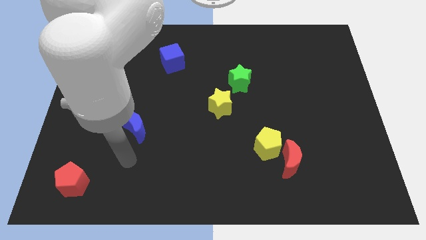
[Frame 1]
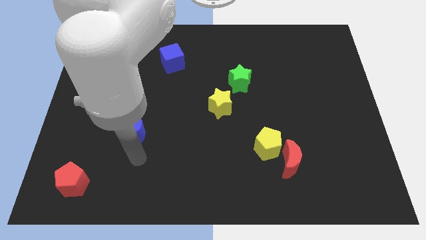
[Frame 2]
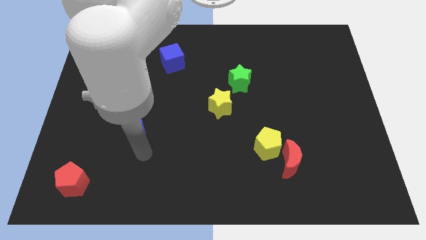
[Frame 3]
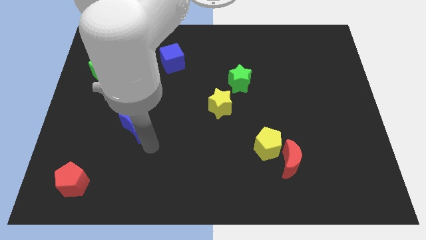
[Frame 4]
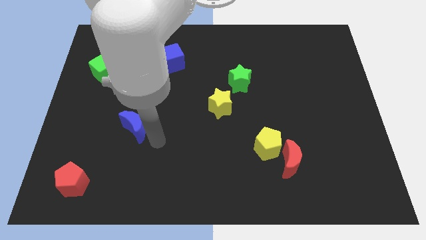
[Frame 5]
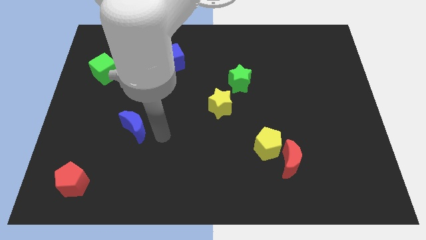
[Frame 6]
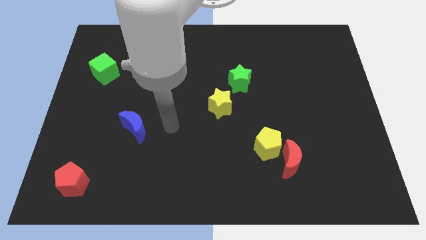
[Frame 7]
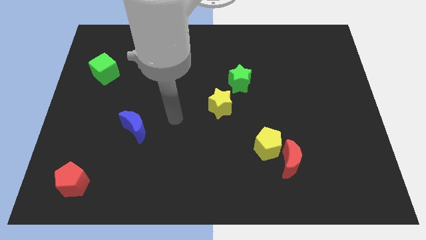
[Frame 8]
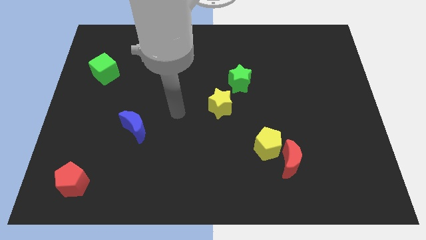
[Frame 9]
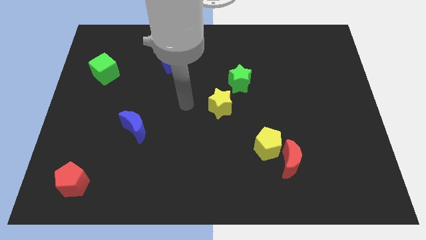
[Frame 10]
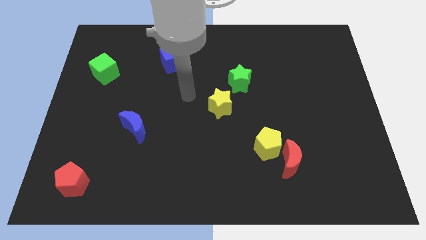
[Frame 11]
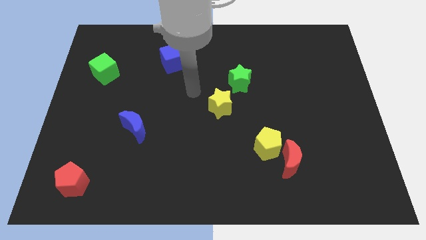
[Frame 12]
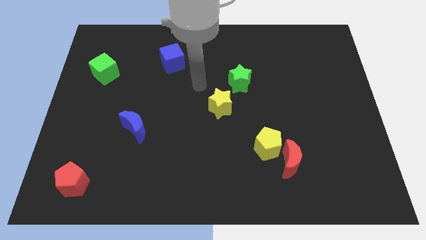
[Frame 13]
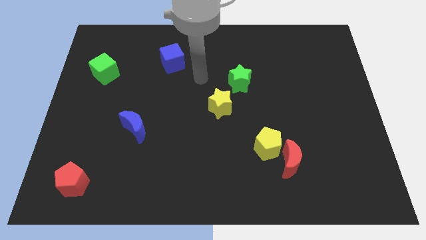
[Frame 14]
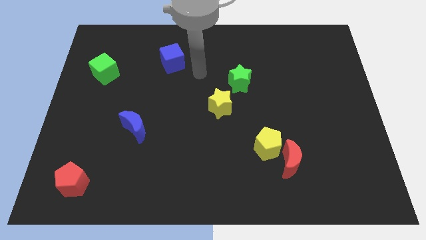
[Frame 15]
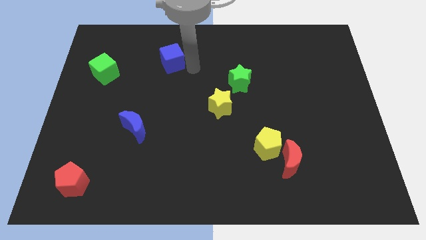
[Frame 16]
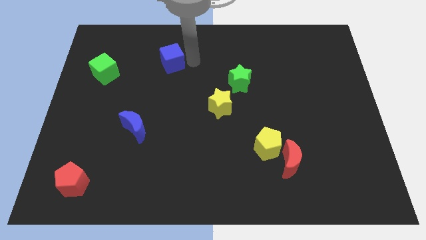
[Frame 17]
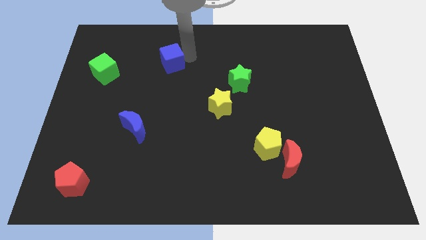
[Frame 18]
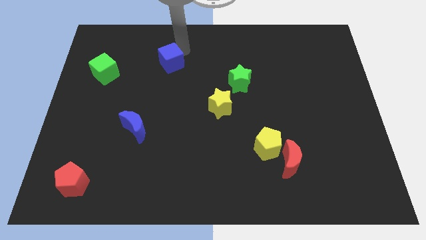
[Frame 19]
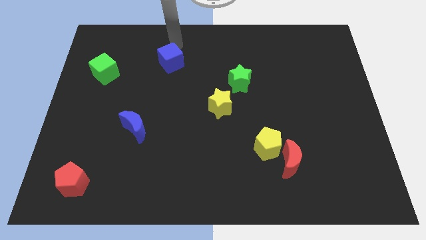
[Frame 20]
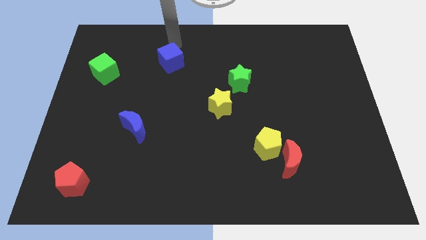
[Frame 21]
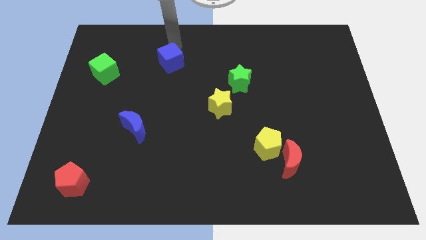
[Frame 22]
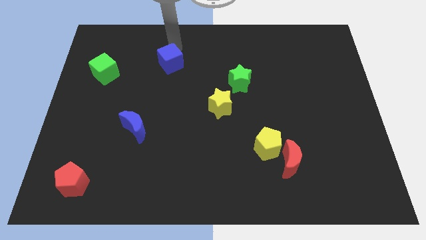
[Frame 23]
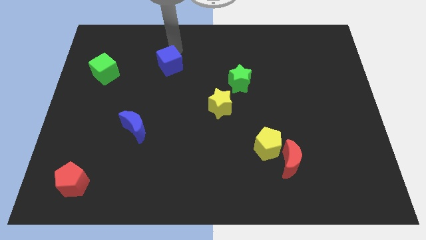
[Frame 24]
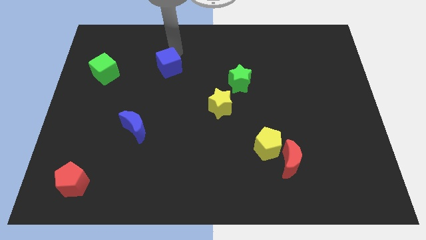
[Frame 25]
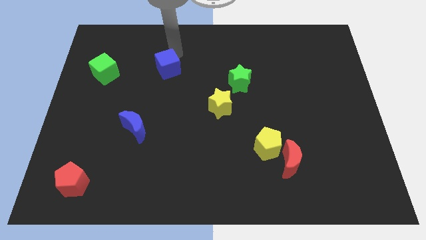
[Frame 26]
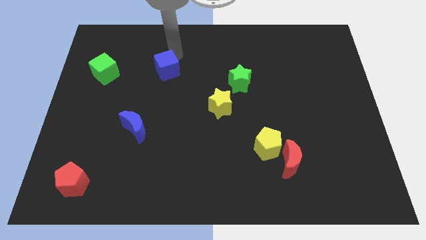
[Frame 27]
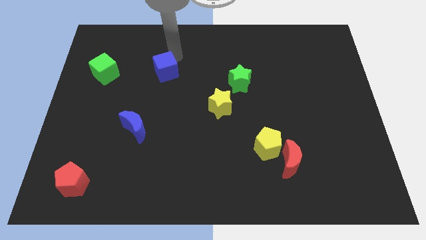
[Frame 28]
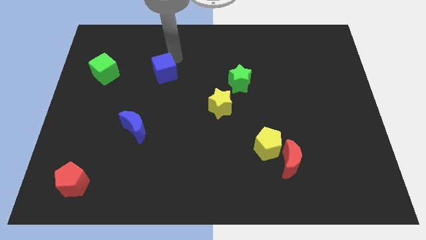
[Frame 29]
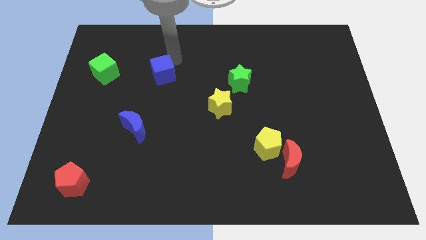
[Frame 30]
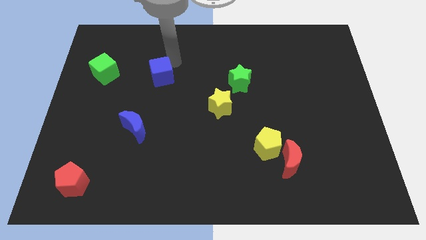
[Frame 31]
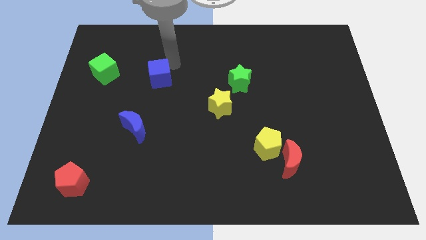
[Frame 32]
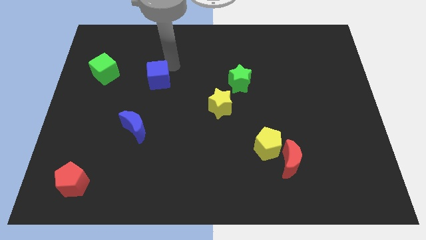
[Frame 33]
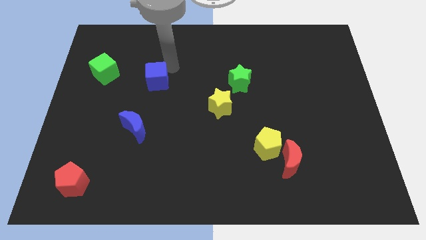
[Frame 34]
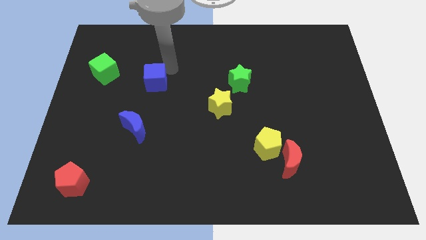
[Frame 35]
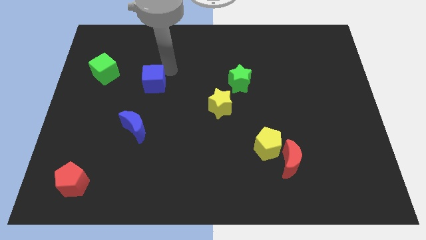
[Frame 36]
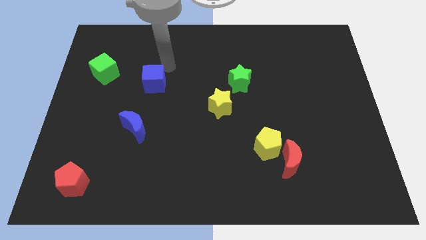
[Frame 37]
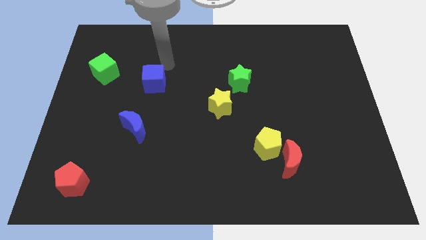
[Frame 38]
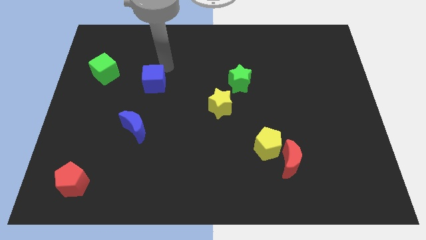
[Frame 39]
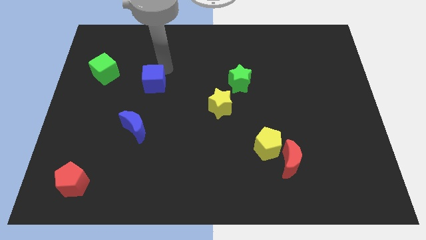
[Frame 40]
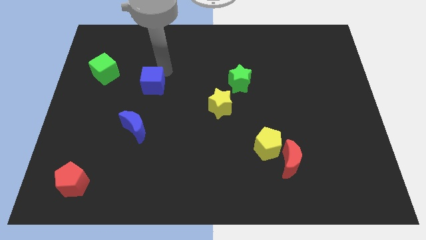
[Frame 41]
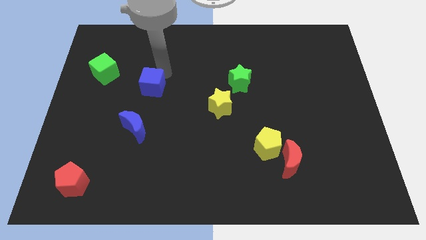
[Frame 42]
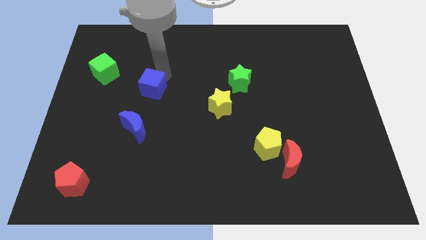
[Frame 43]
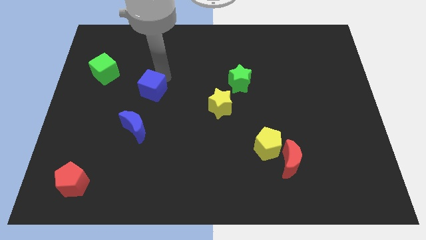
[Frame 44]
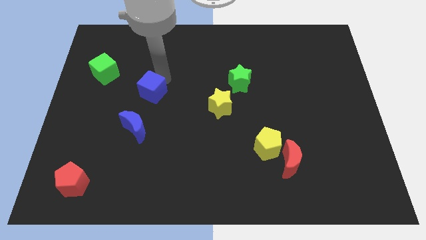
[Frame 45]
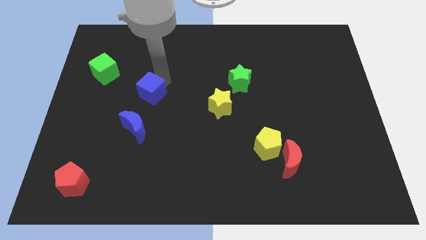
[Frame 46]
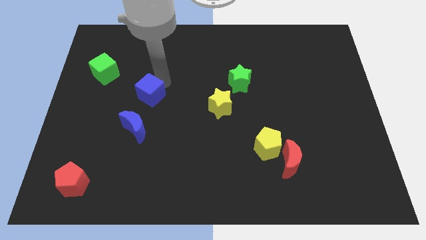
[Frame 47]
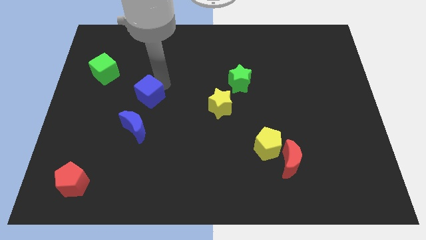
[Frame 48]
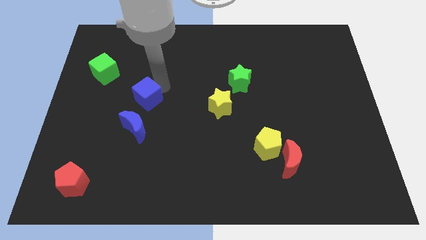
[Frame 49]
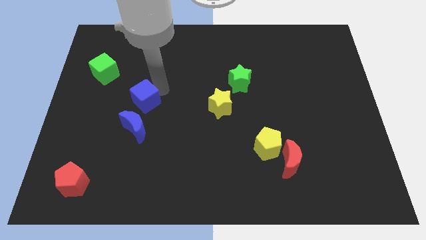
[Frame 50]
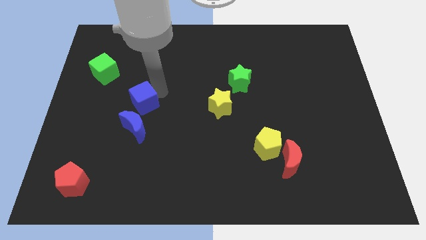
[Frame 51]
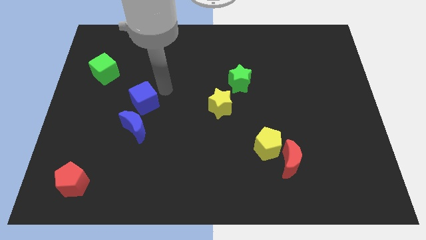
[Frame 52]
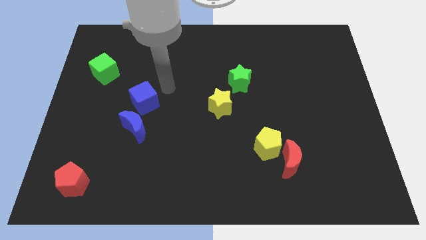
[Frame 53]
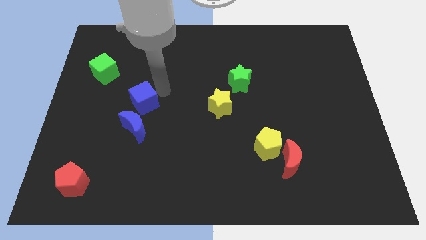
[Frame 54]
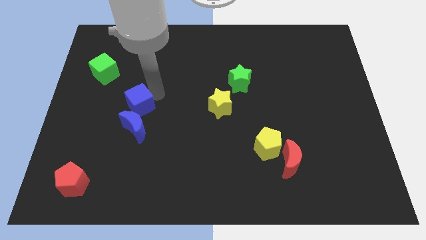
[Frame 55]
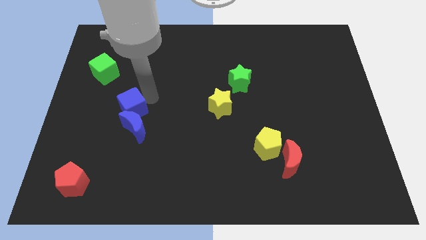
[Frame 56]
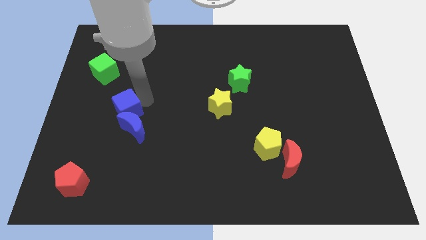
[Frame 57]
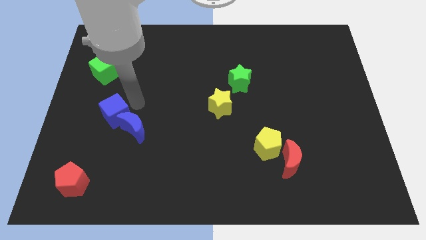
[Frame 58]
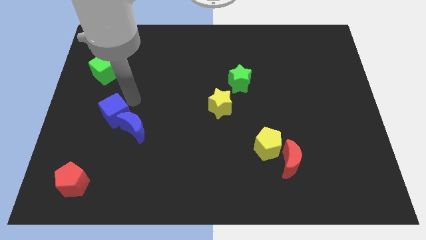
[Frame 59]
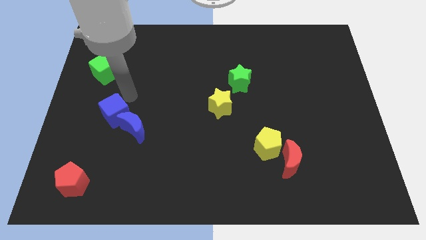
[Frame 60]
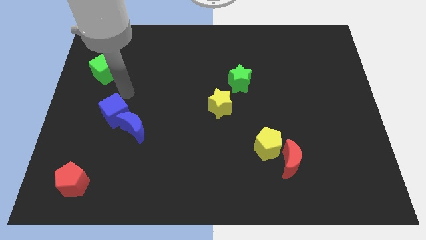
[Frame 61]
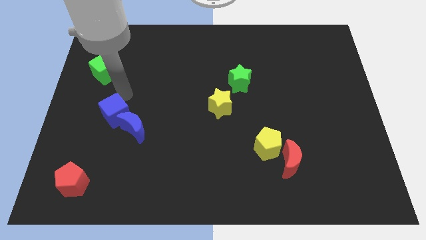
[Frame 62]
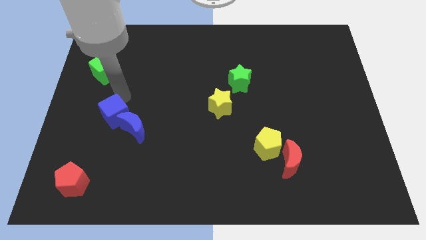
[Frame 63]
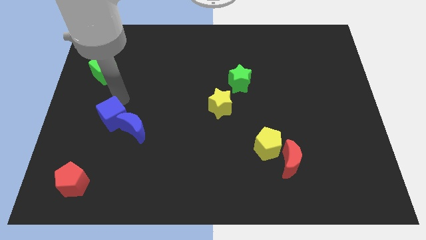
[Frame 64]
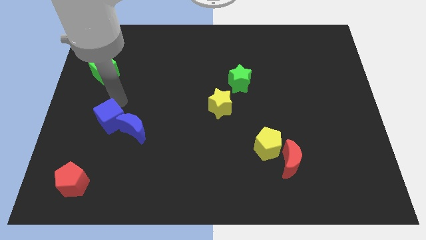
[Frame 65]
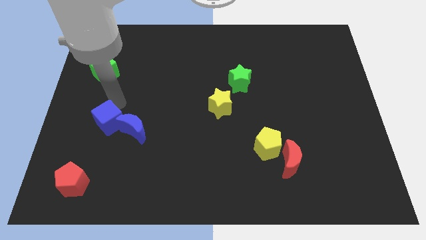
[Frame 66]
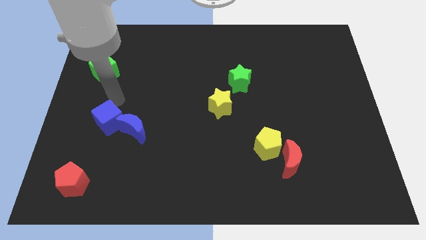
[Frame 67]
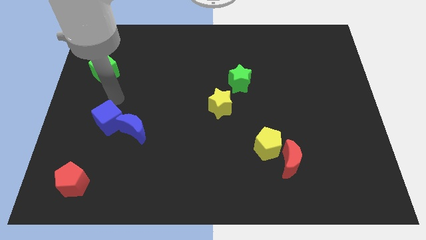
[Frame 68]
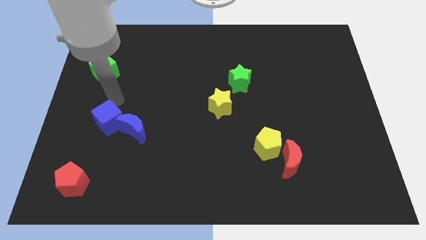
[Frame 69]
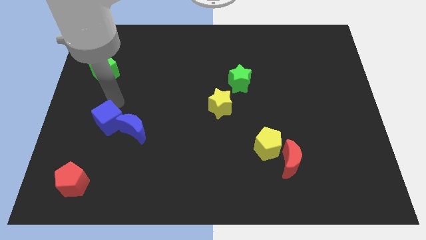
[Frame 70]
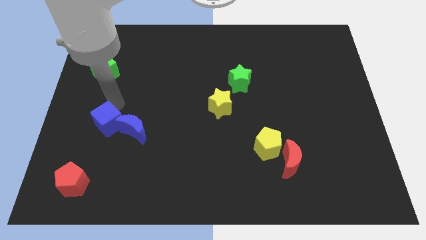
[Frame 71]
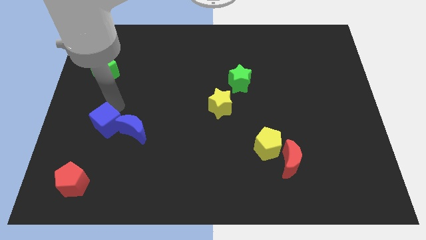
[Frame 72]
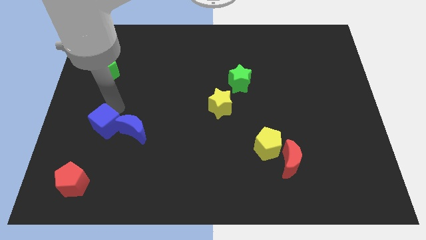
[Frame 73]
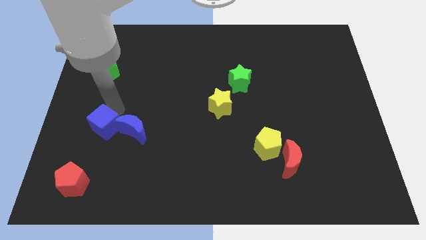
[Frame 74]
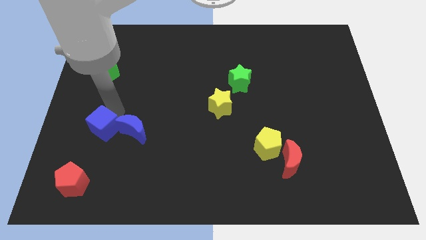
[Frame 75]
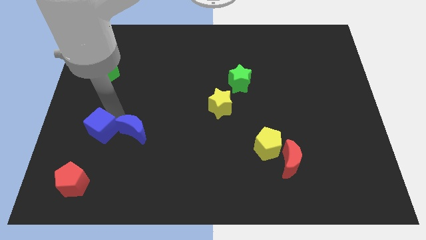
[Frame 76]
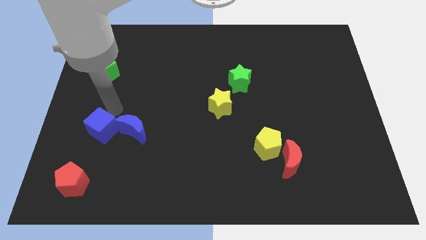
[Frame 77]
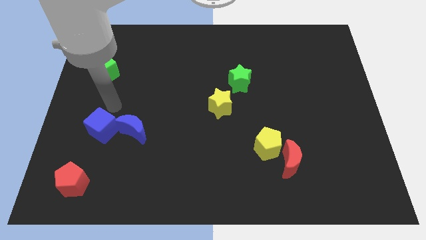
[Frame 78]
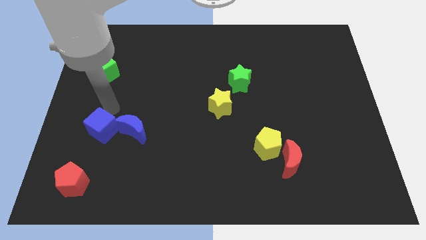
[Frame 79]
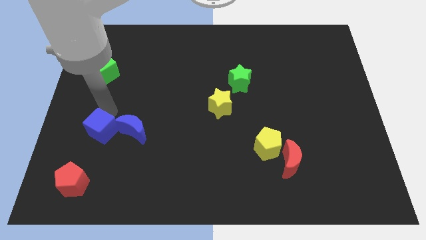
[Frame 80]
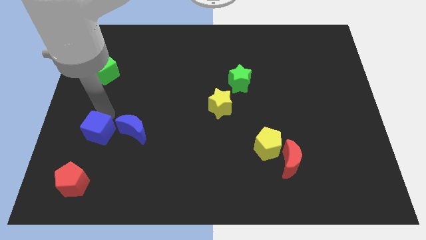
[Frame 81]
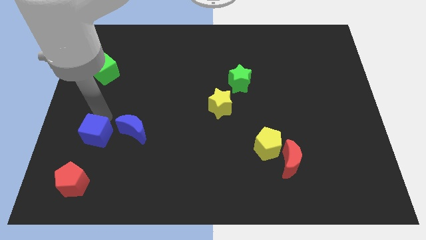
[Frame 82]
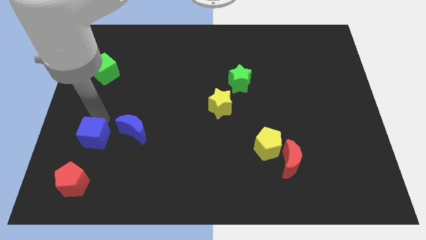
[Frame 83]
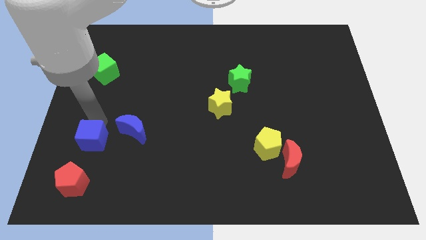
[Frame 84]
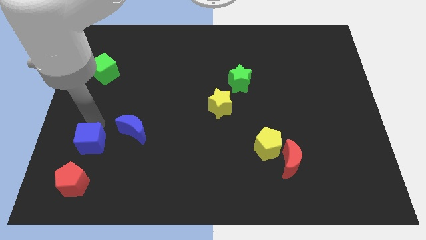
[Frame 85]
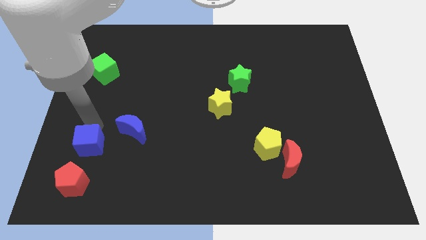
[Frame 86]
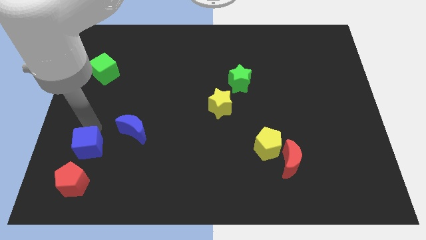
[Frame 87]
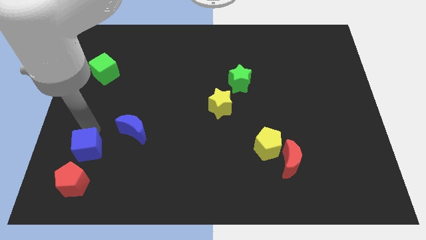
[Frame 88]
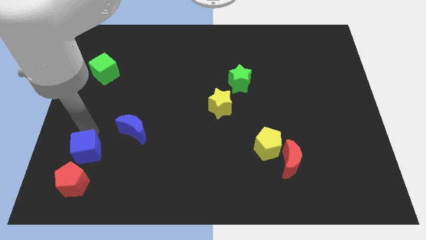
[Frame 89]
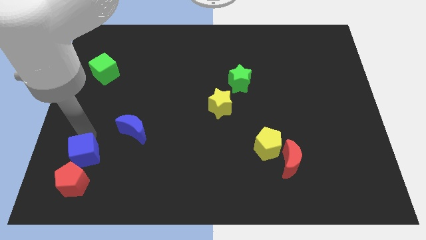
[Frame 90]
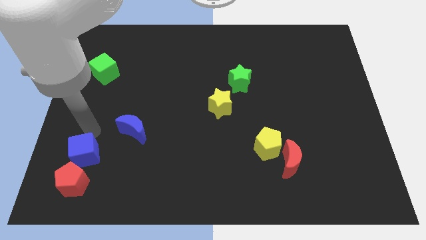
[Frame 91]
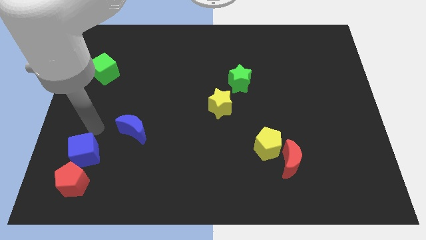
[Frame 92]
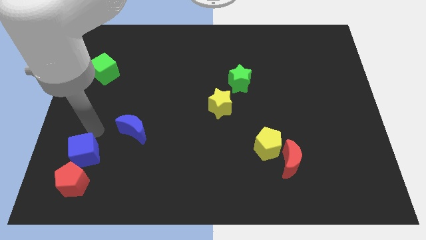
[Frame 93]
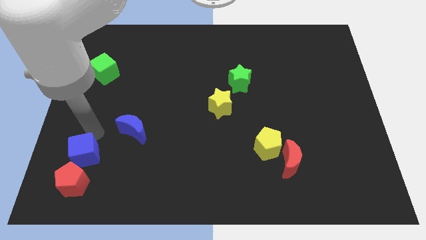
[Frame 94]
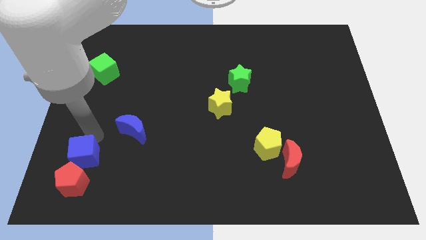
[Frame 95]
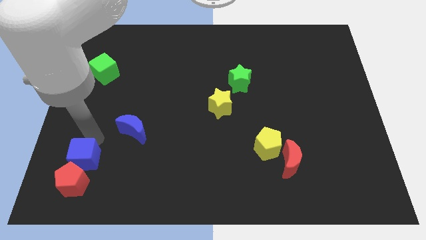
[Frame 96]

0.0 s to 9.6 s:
slide the blue cube towards the red pentagon
